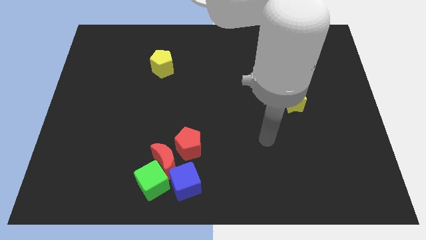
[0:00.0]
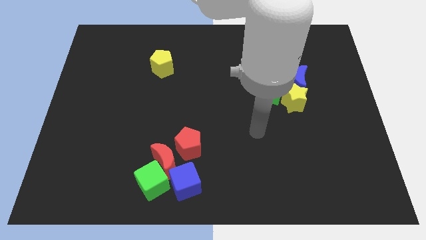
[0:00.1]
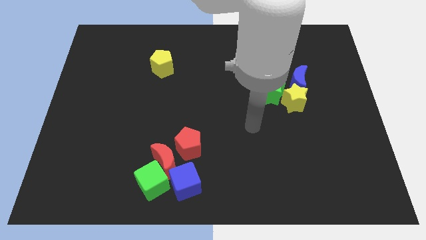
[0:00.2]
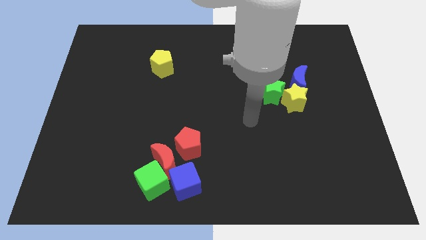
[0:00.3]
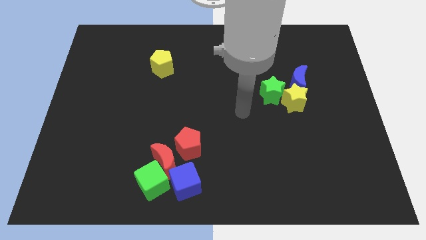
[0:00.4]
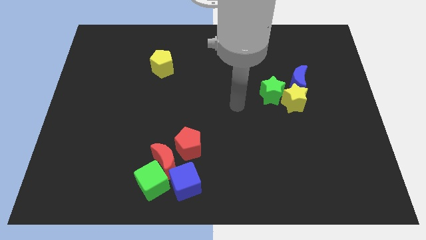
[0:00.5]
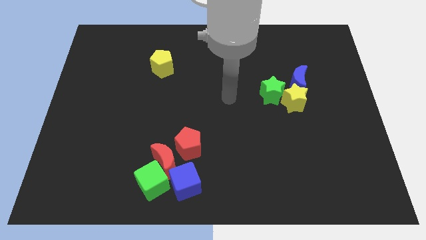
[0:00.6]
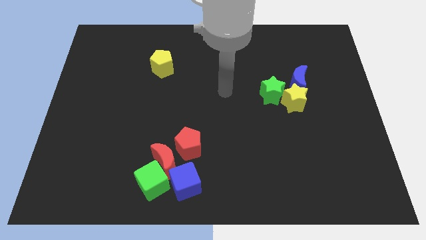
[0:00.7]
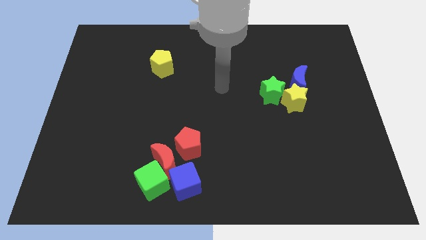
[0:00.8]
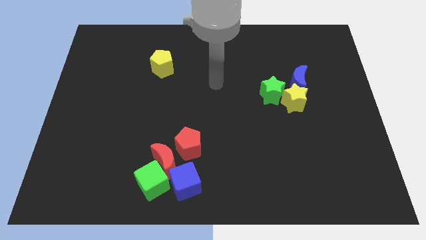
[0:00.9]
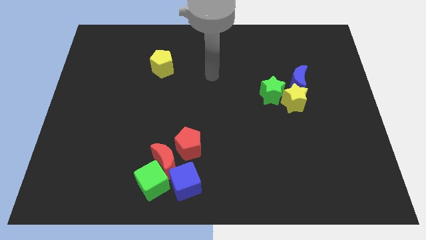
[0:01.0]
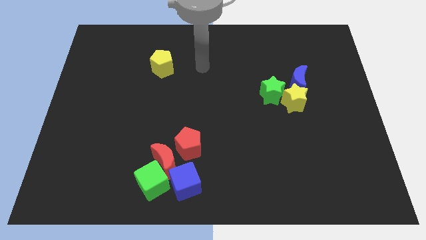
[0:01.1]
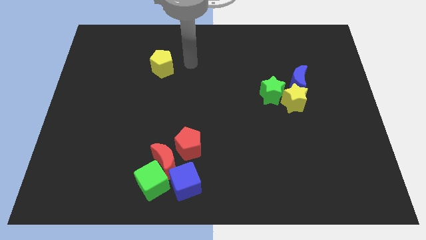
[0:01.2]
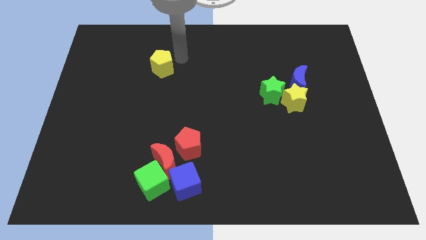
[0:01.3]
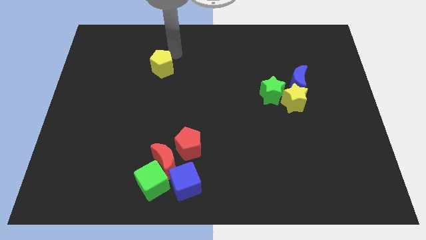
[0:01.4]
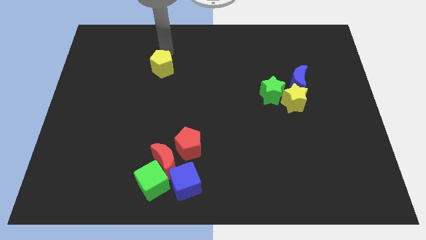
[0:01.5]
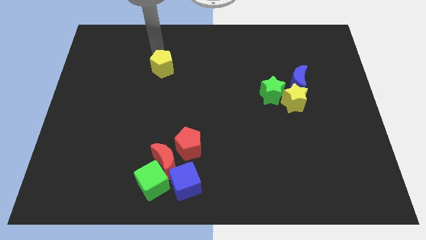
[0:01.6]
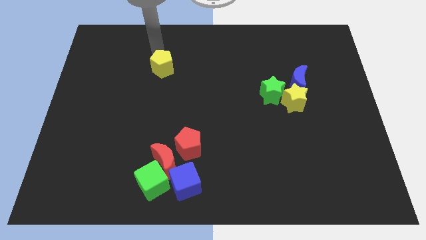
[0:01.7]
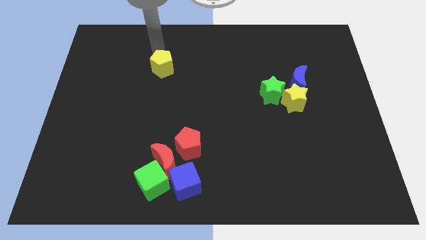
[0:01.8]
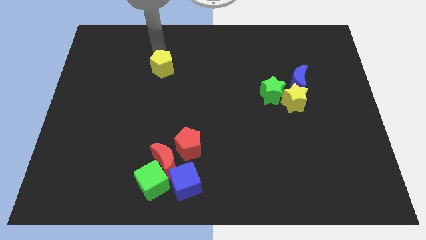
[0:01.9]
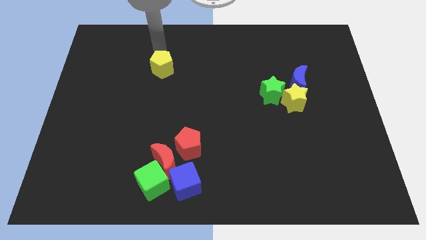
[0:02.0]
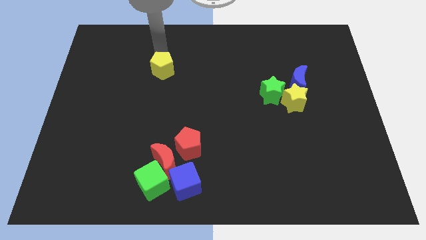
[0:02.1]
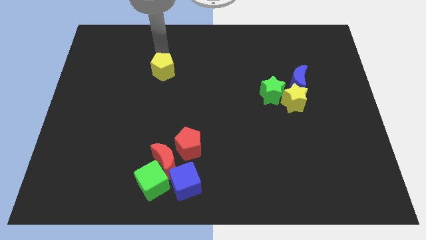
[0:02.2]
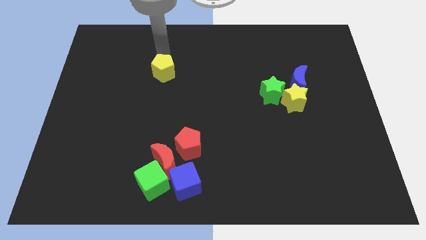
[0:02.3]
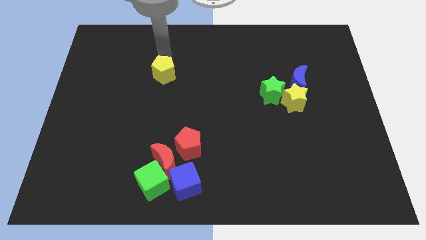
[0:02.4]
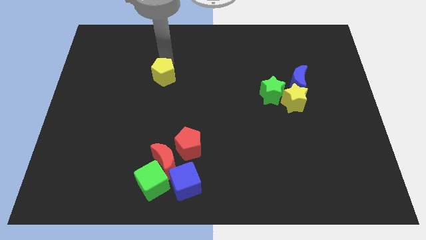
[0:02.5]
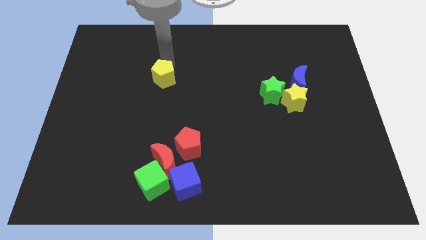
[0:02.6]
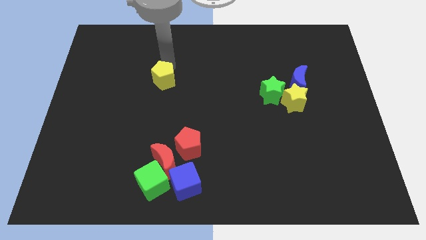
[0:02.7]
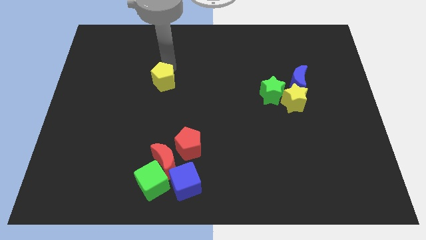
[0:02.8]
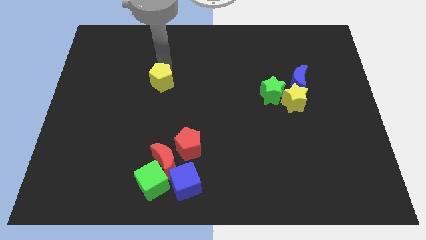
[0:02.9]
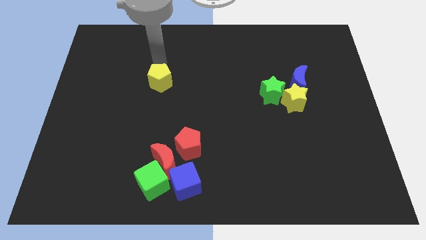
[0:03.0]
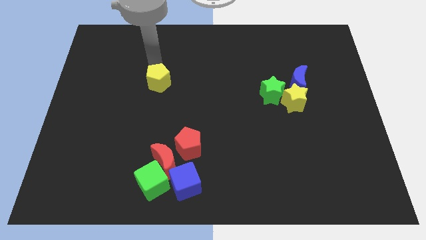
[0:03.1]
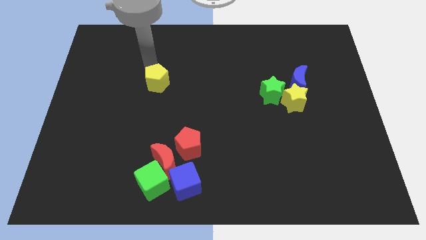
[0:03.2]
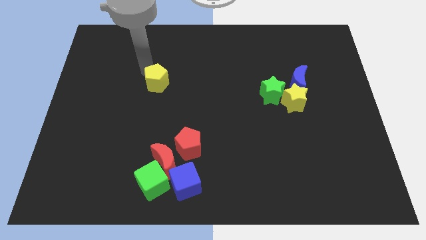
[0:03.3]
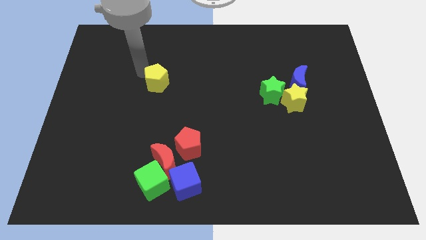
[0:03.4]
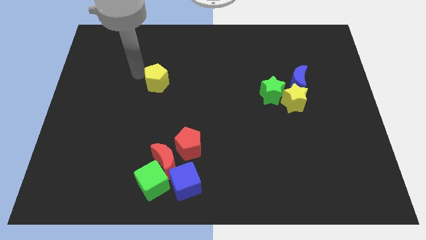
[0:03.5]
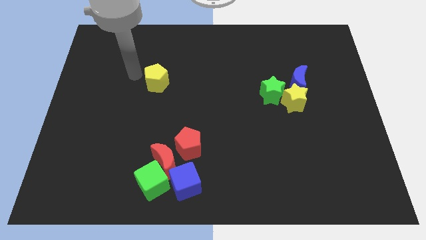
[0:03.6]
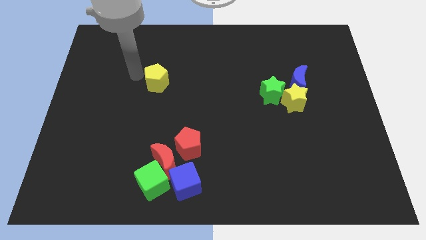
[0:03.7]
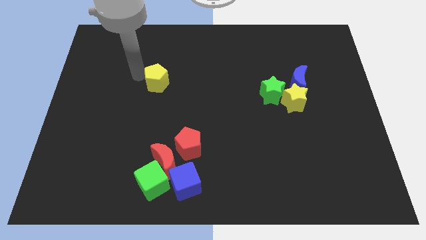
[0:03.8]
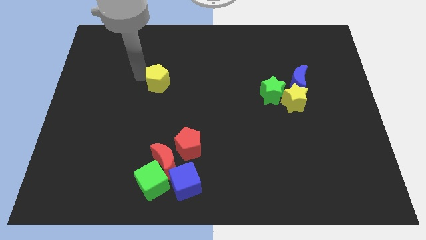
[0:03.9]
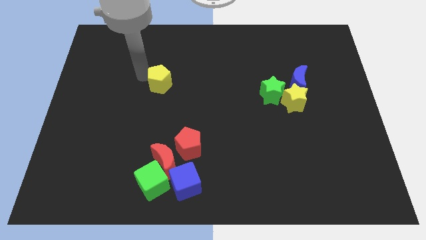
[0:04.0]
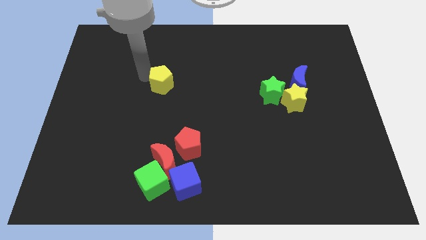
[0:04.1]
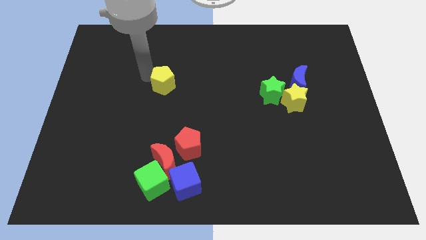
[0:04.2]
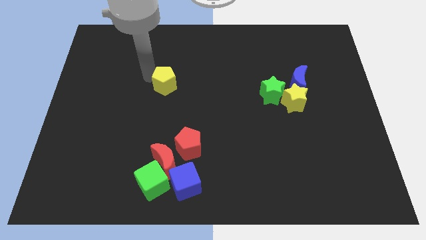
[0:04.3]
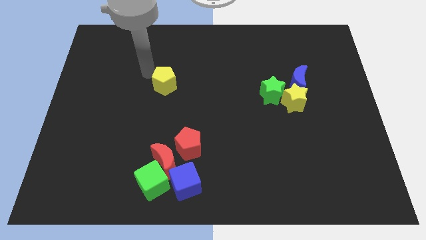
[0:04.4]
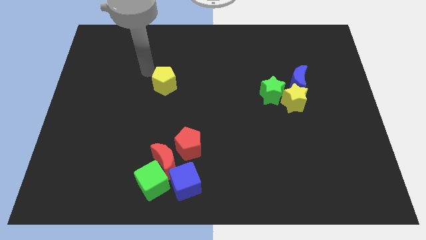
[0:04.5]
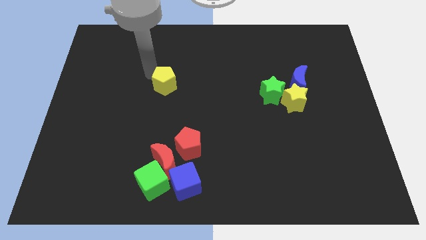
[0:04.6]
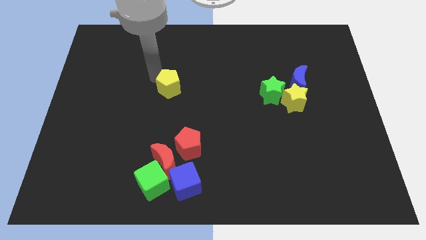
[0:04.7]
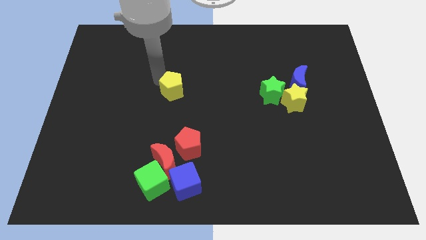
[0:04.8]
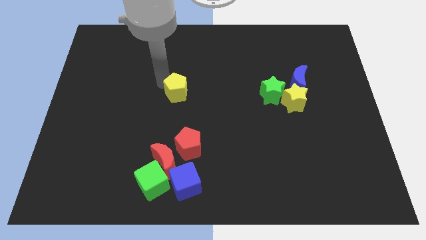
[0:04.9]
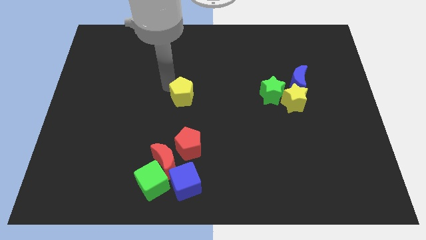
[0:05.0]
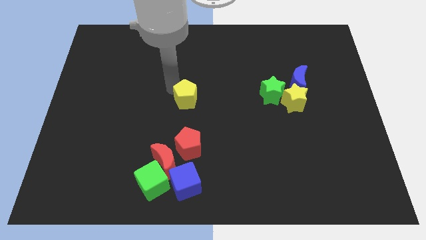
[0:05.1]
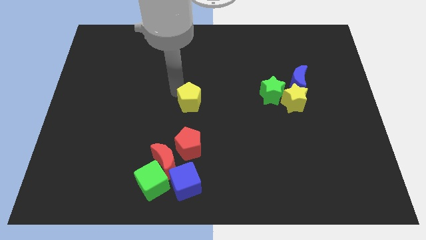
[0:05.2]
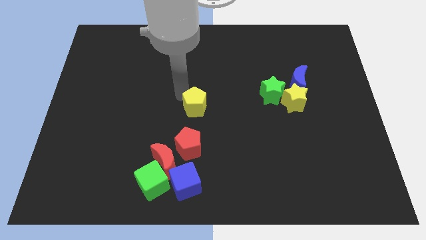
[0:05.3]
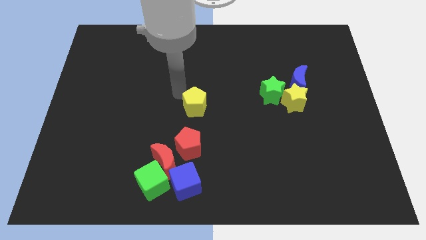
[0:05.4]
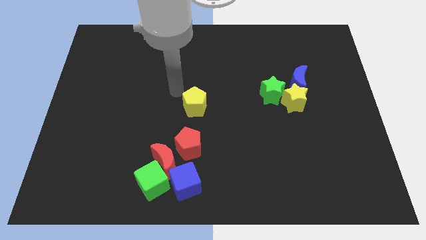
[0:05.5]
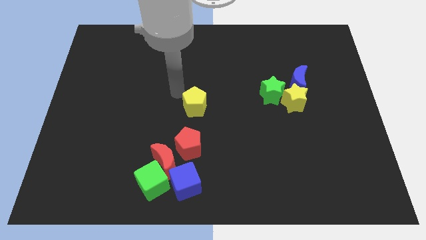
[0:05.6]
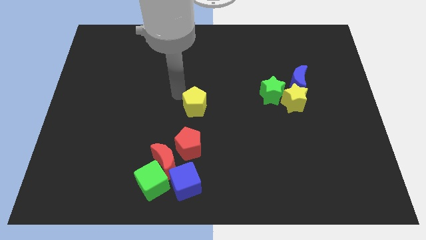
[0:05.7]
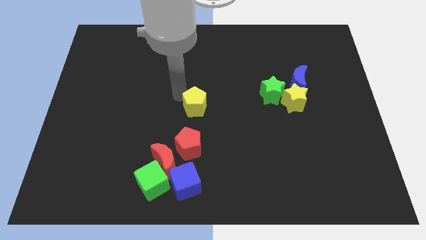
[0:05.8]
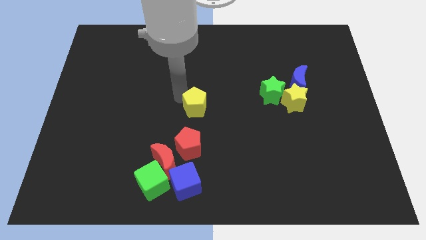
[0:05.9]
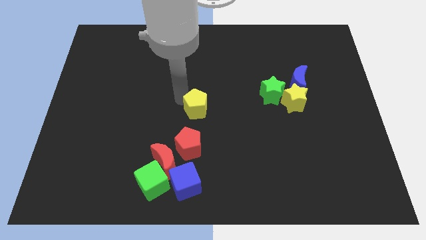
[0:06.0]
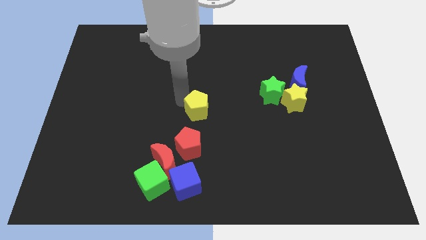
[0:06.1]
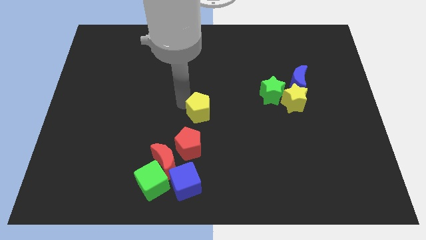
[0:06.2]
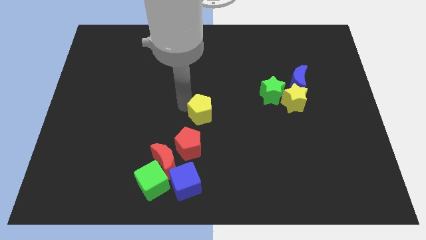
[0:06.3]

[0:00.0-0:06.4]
slide the yellow pentagon to the top right of the red pentagon
